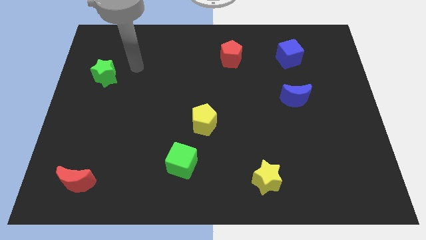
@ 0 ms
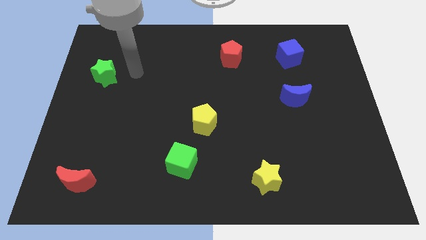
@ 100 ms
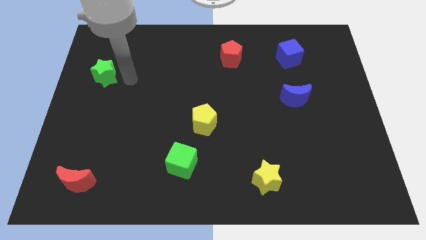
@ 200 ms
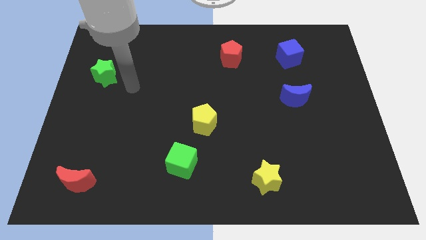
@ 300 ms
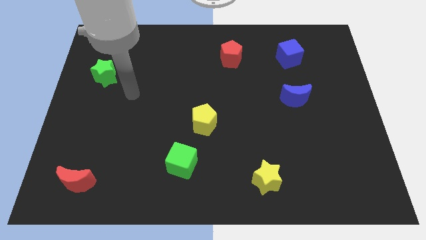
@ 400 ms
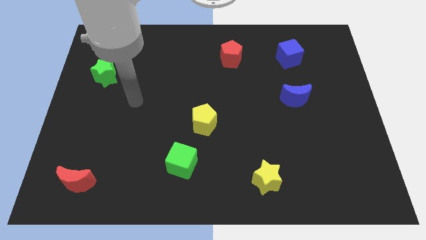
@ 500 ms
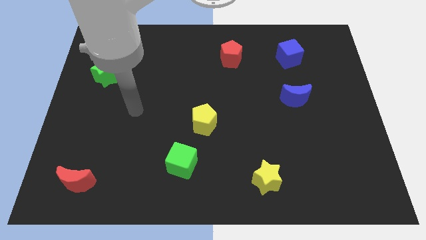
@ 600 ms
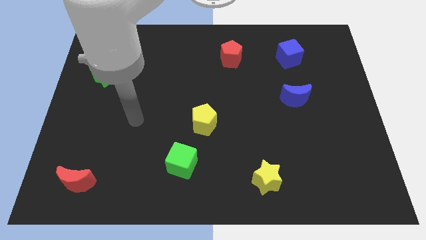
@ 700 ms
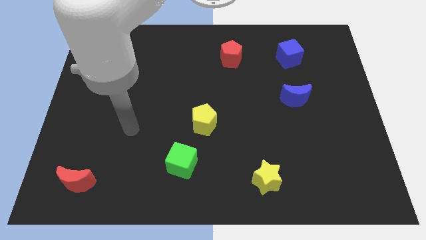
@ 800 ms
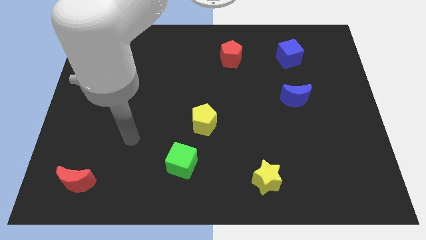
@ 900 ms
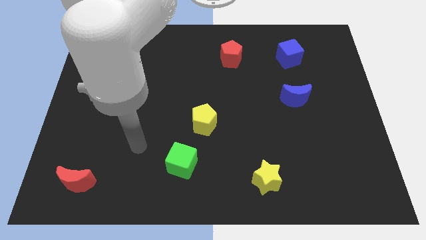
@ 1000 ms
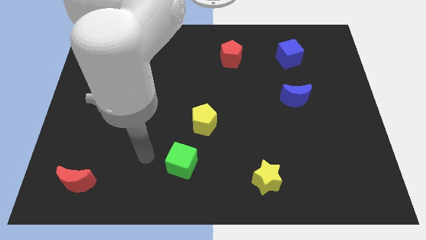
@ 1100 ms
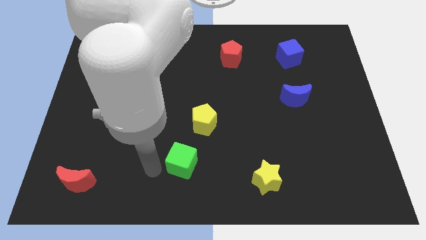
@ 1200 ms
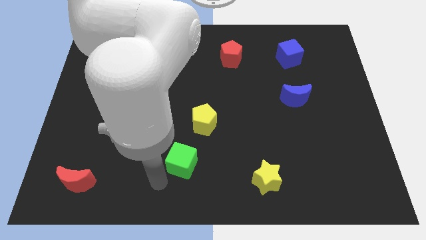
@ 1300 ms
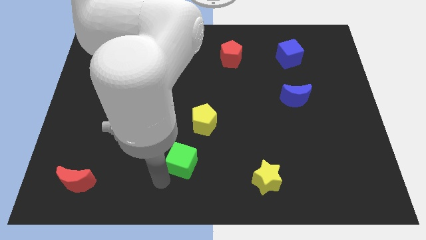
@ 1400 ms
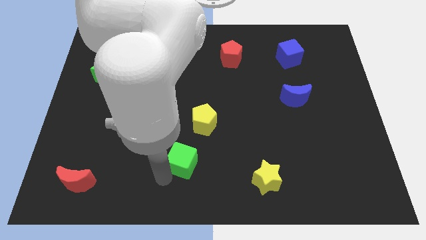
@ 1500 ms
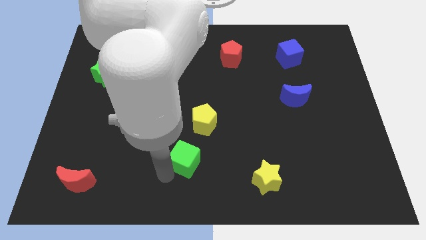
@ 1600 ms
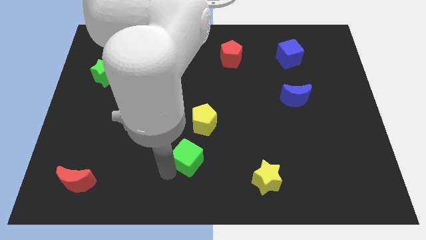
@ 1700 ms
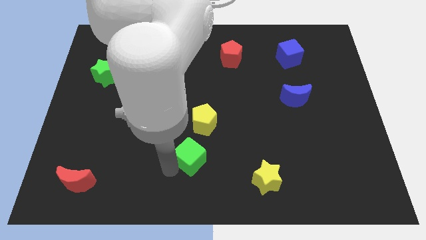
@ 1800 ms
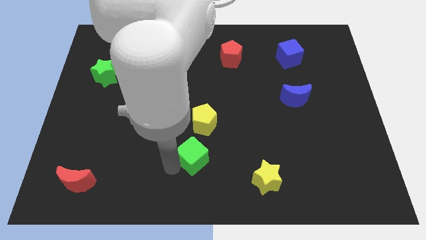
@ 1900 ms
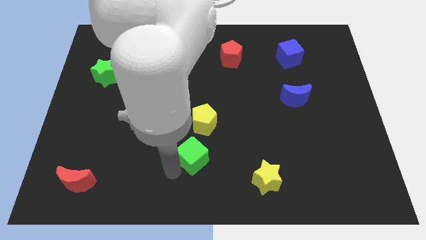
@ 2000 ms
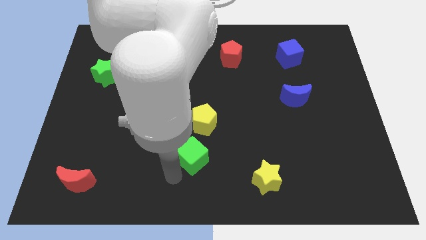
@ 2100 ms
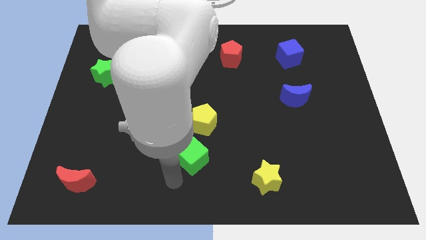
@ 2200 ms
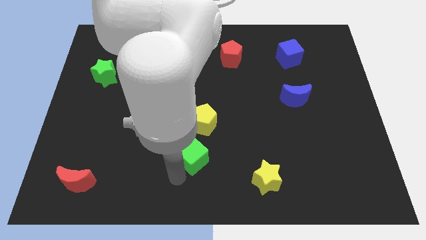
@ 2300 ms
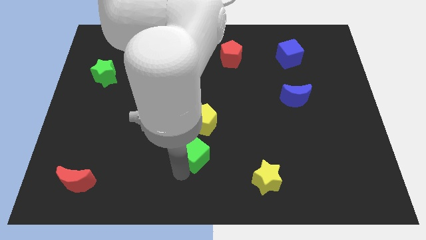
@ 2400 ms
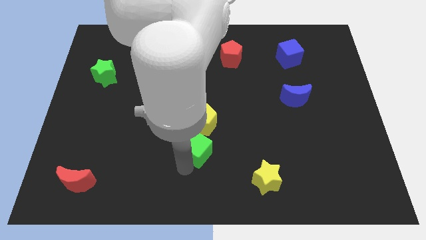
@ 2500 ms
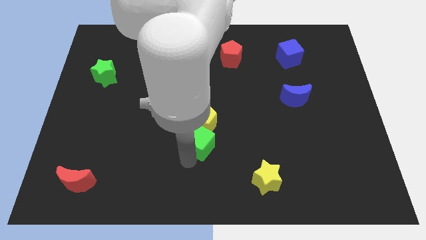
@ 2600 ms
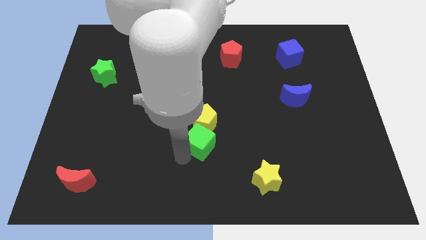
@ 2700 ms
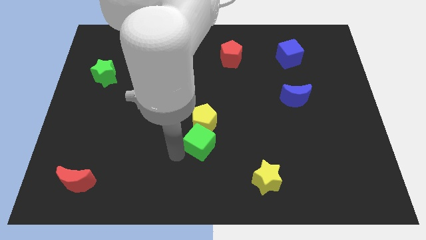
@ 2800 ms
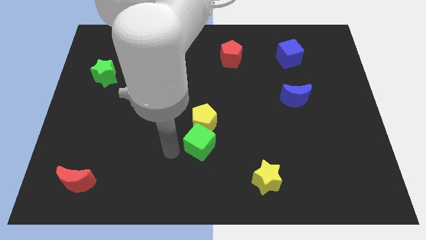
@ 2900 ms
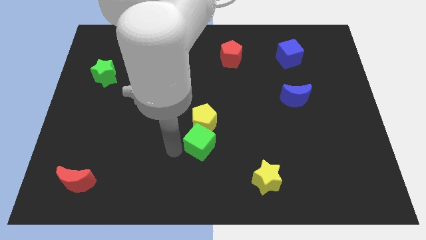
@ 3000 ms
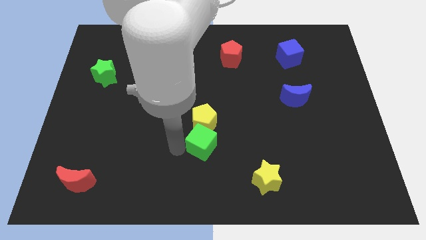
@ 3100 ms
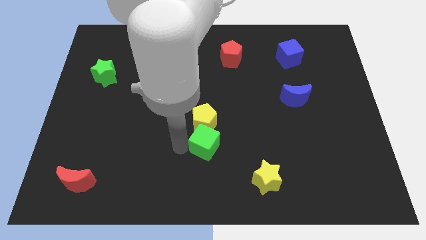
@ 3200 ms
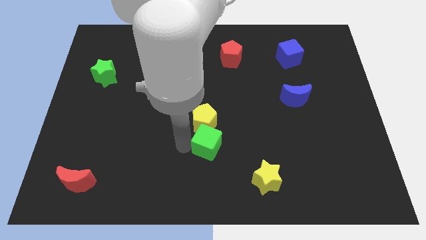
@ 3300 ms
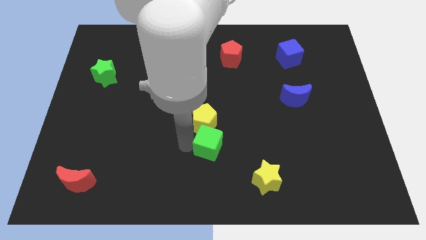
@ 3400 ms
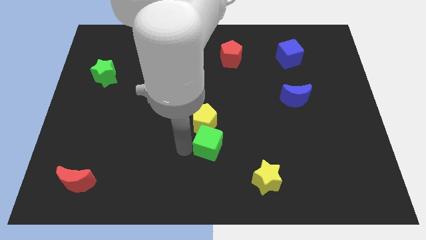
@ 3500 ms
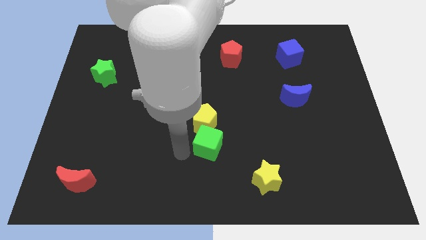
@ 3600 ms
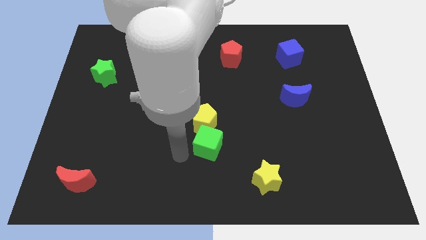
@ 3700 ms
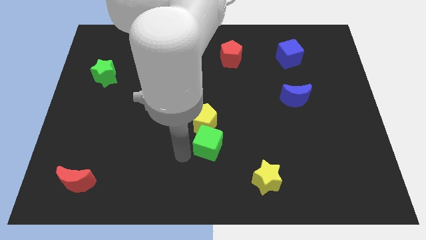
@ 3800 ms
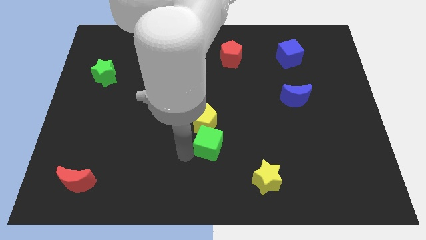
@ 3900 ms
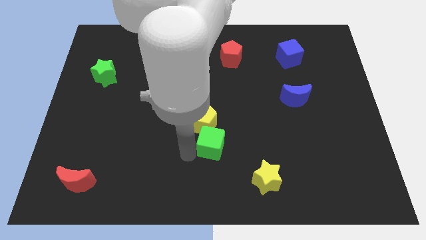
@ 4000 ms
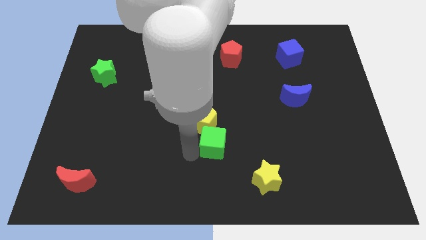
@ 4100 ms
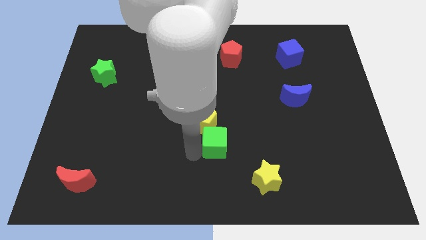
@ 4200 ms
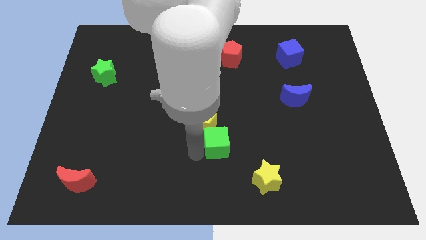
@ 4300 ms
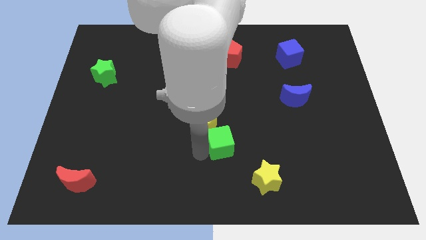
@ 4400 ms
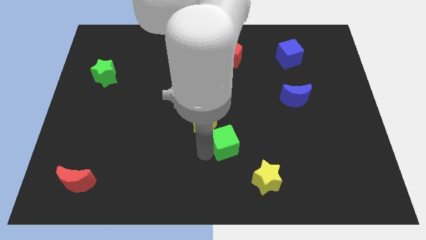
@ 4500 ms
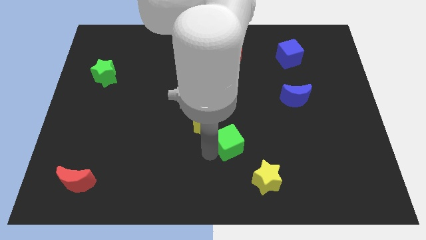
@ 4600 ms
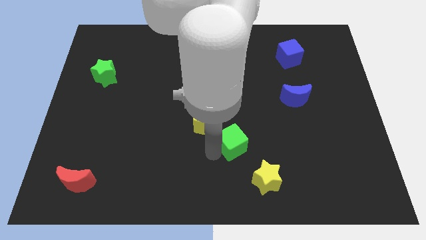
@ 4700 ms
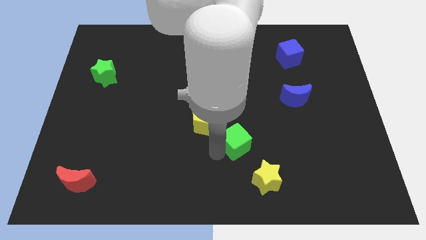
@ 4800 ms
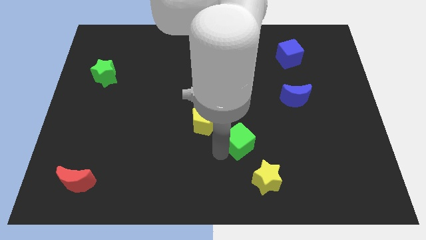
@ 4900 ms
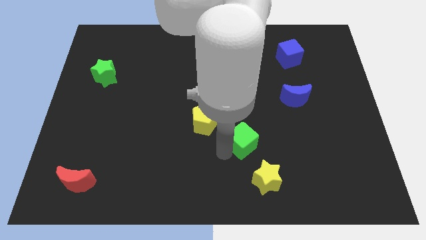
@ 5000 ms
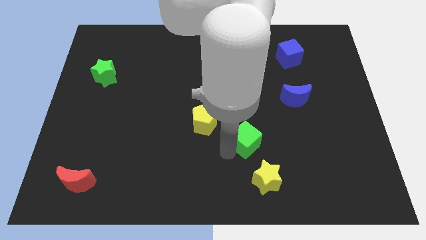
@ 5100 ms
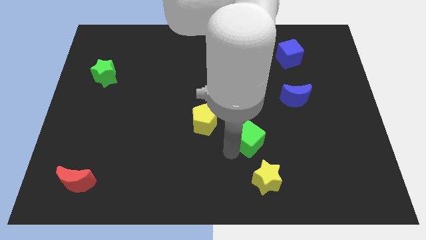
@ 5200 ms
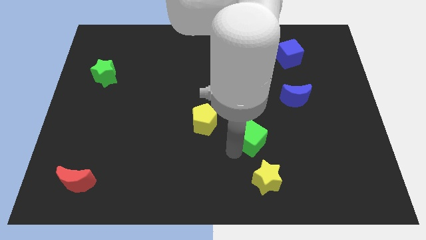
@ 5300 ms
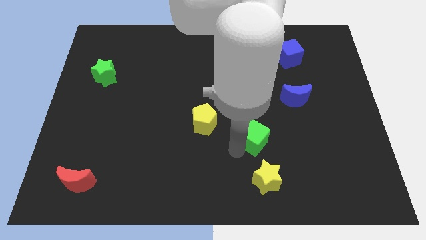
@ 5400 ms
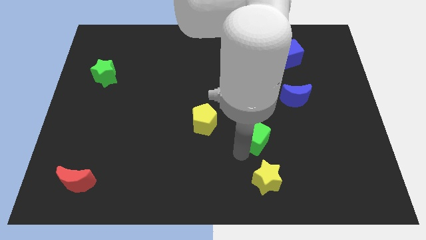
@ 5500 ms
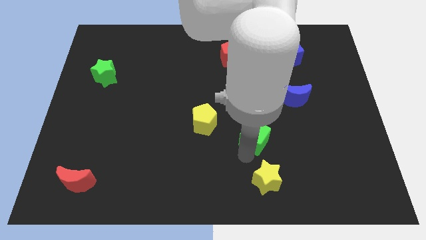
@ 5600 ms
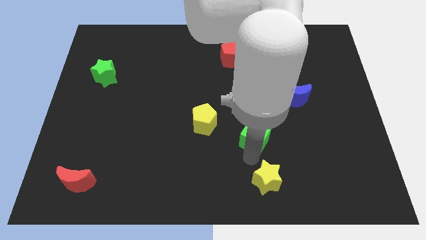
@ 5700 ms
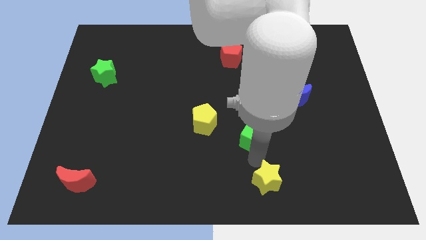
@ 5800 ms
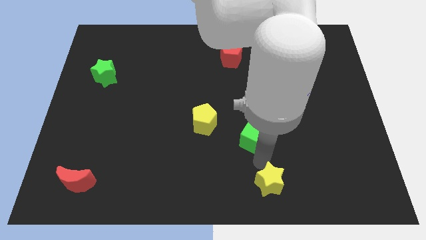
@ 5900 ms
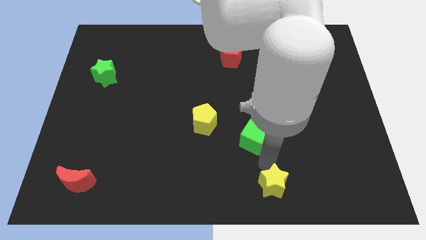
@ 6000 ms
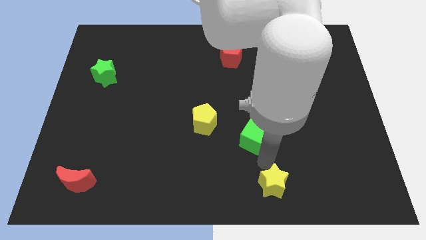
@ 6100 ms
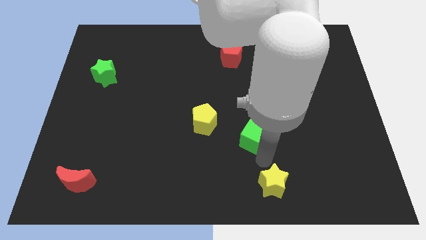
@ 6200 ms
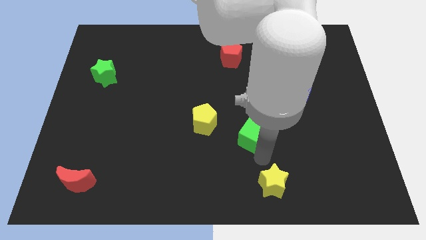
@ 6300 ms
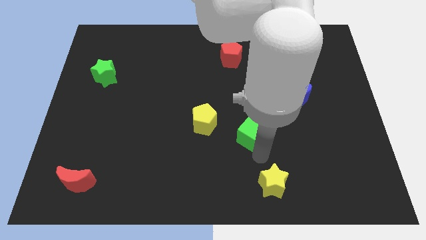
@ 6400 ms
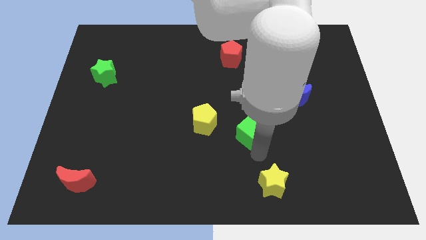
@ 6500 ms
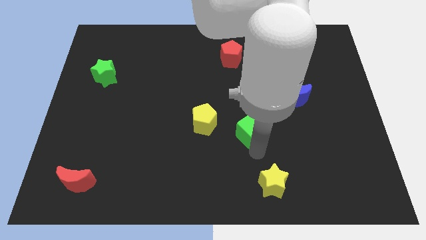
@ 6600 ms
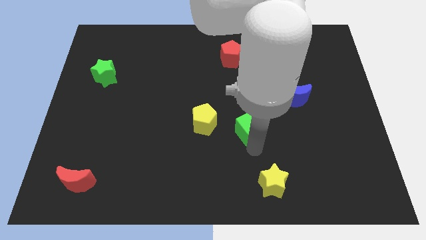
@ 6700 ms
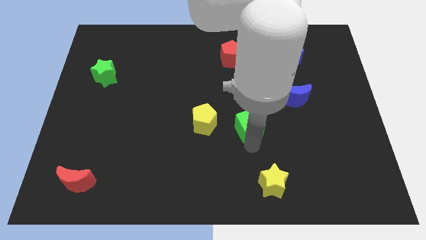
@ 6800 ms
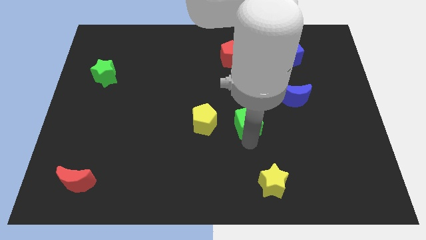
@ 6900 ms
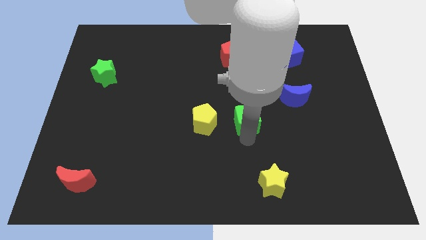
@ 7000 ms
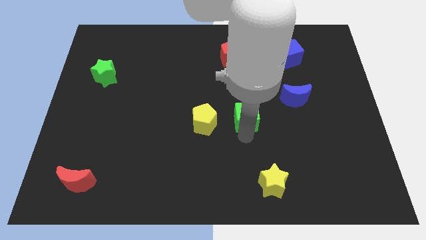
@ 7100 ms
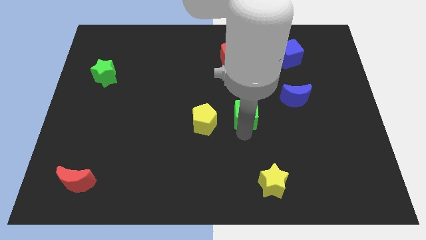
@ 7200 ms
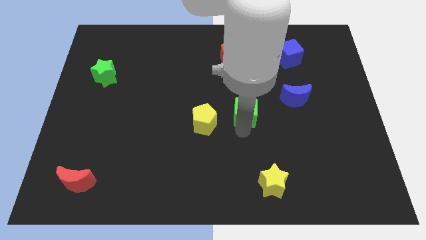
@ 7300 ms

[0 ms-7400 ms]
put the green cube left of the blue moon
